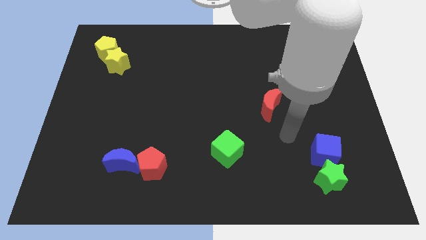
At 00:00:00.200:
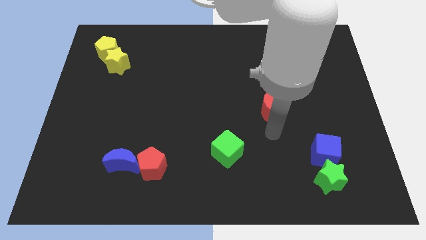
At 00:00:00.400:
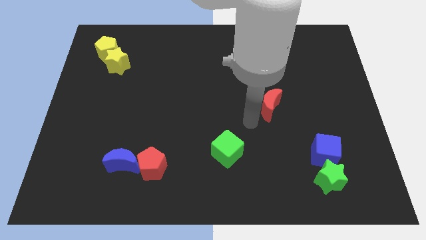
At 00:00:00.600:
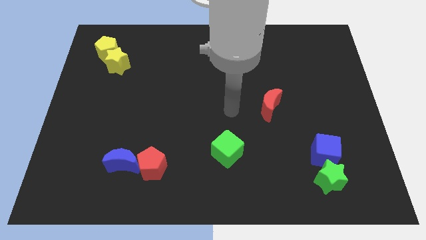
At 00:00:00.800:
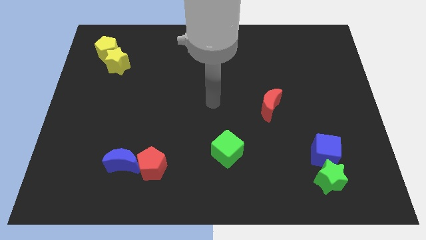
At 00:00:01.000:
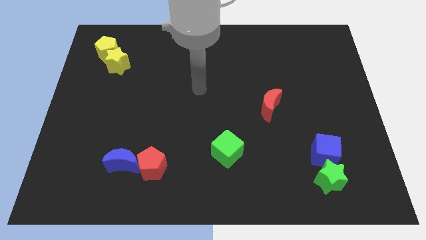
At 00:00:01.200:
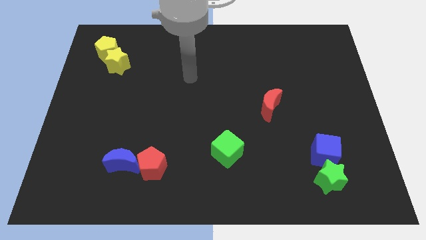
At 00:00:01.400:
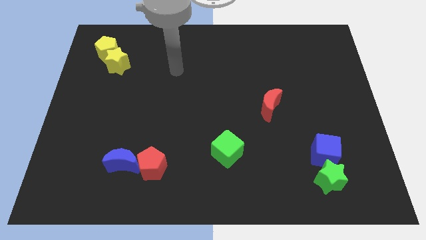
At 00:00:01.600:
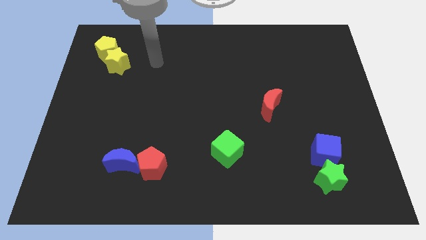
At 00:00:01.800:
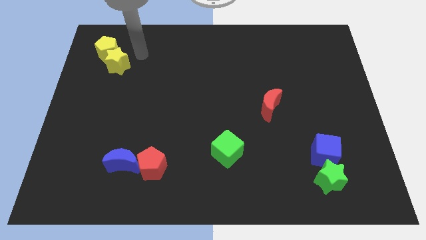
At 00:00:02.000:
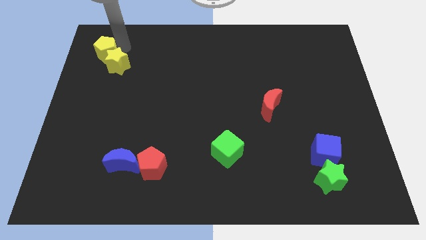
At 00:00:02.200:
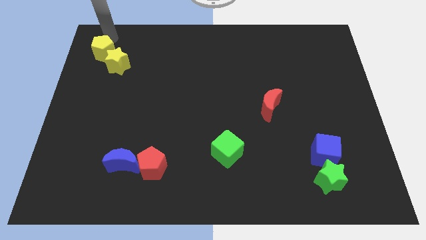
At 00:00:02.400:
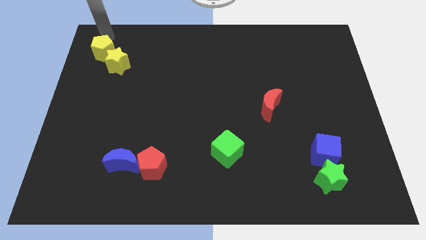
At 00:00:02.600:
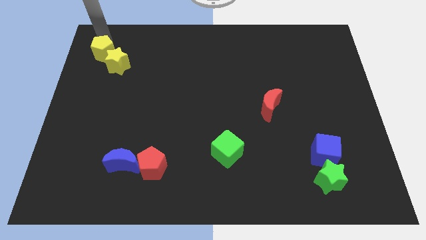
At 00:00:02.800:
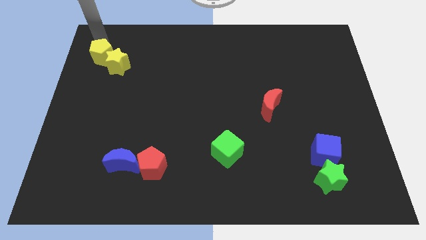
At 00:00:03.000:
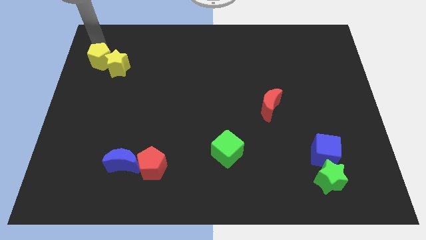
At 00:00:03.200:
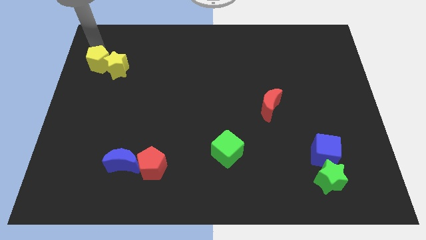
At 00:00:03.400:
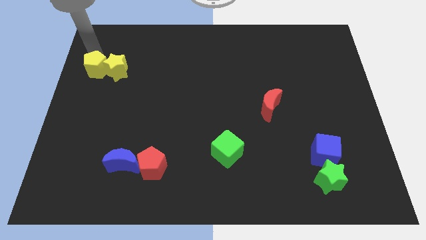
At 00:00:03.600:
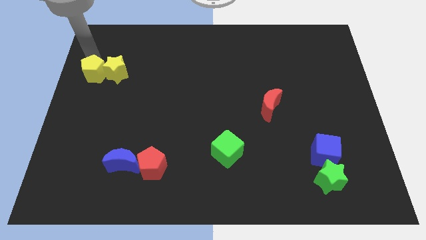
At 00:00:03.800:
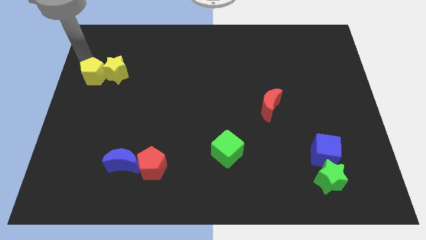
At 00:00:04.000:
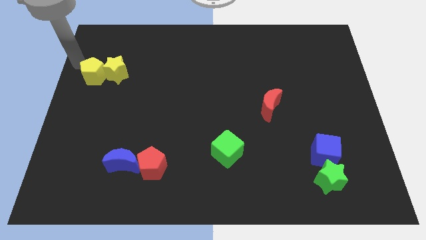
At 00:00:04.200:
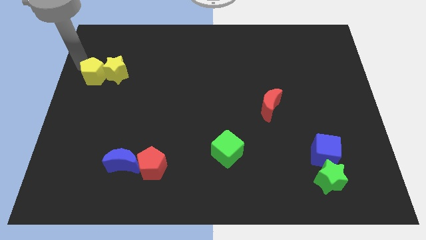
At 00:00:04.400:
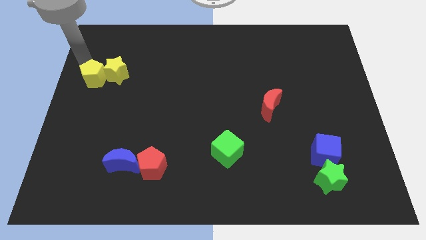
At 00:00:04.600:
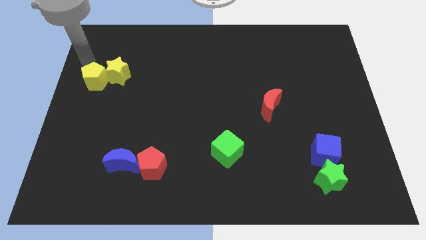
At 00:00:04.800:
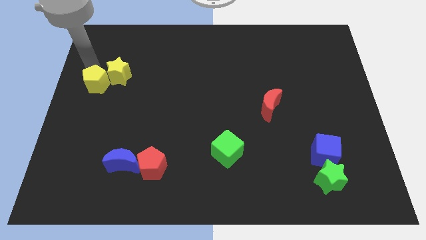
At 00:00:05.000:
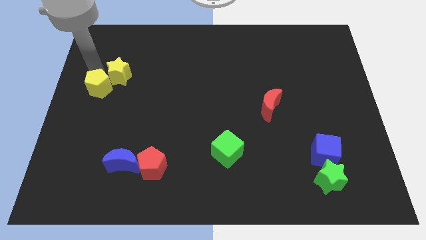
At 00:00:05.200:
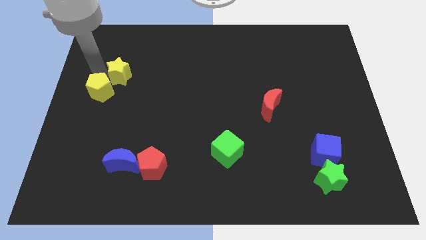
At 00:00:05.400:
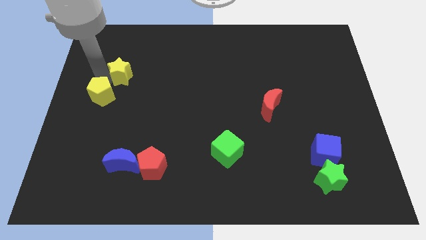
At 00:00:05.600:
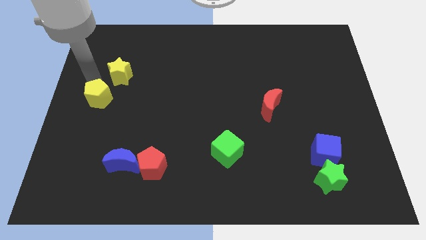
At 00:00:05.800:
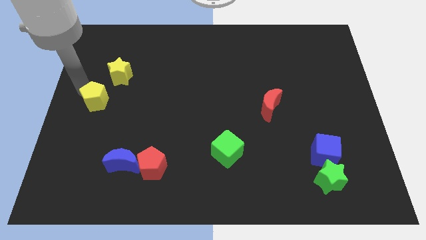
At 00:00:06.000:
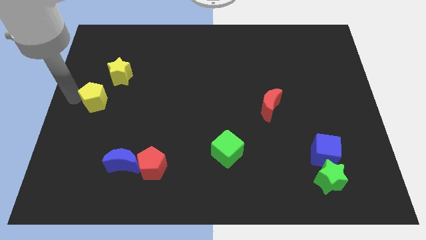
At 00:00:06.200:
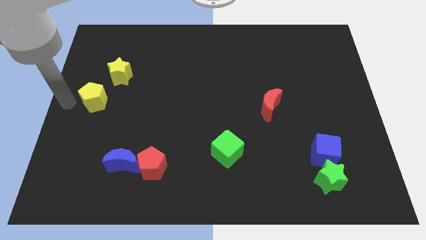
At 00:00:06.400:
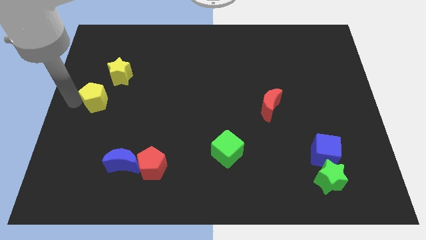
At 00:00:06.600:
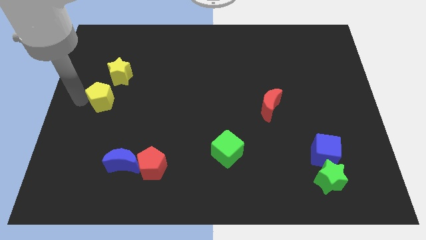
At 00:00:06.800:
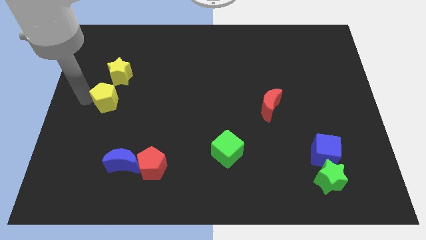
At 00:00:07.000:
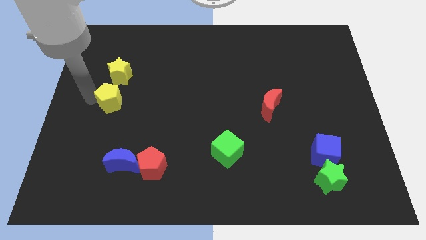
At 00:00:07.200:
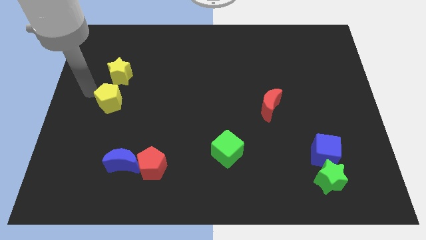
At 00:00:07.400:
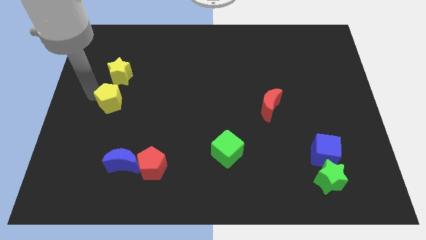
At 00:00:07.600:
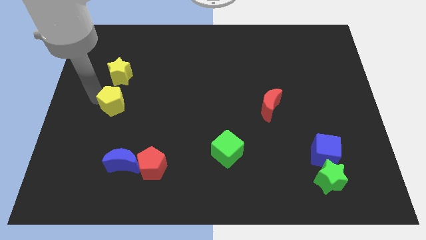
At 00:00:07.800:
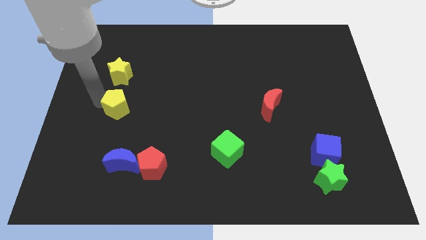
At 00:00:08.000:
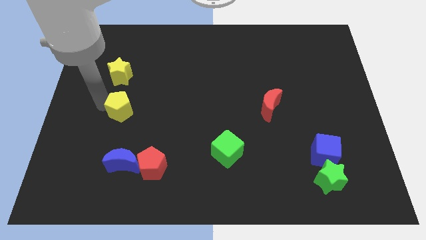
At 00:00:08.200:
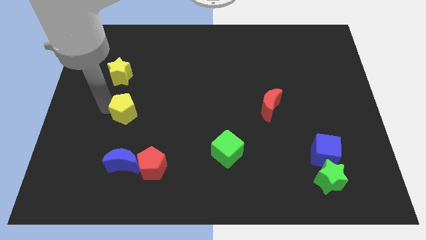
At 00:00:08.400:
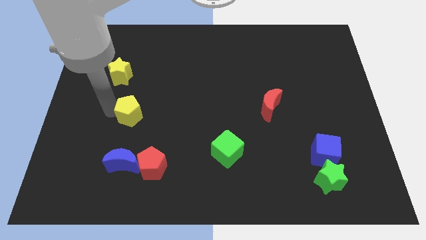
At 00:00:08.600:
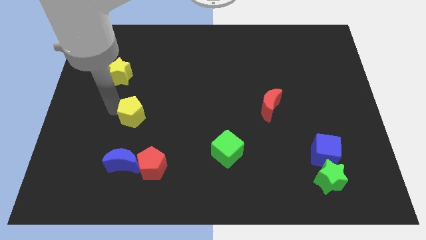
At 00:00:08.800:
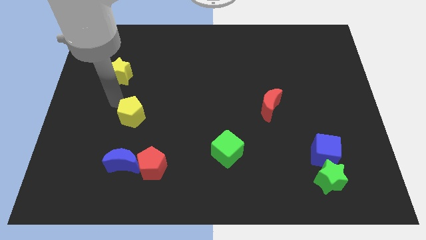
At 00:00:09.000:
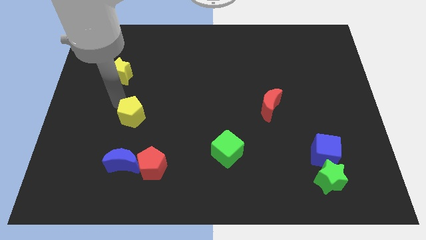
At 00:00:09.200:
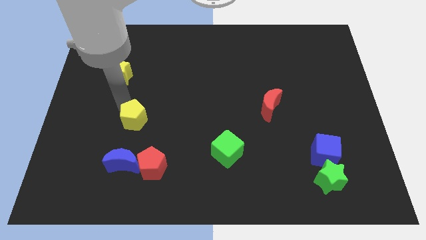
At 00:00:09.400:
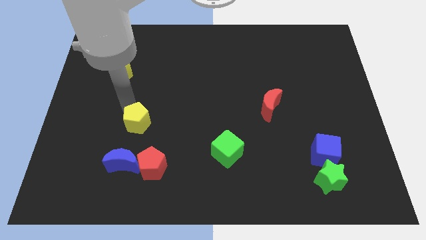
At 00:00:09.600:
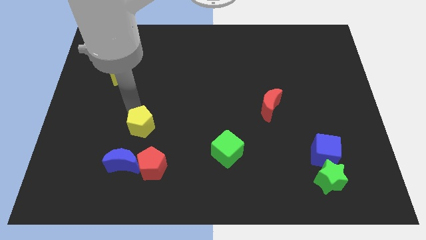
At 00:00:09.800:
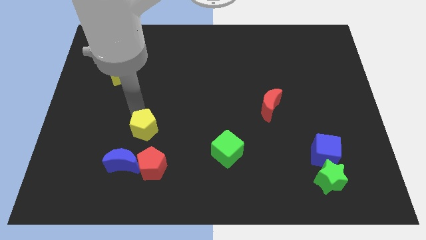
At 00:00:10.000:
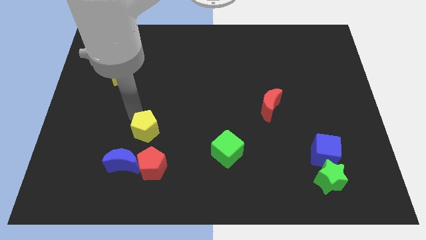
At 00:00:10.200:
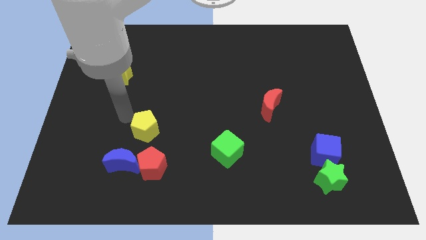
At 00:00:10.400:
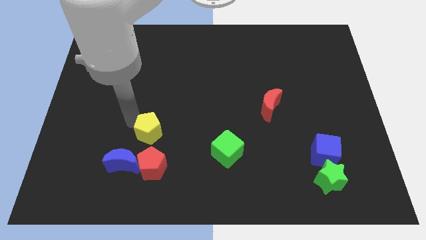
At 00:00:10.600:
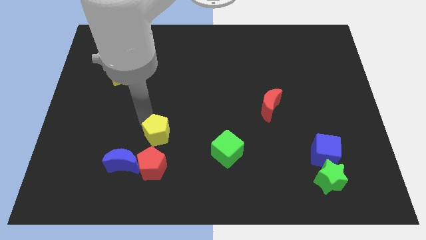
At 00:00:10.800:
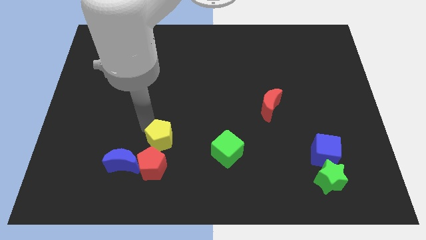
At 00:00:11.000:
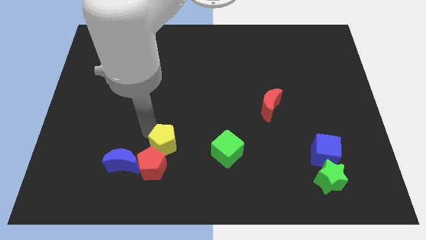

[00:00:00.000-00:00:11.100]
put the yellow pentagon right of the blue moon

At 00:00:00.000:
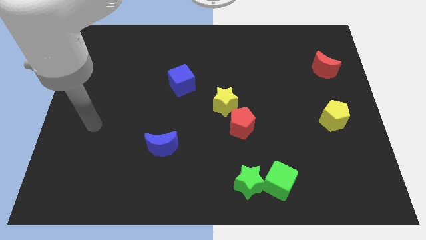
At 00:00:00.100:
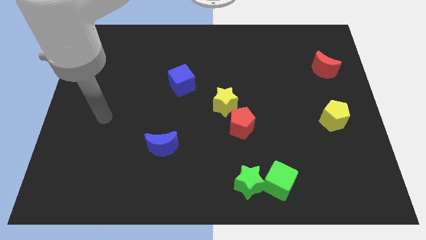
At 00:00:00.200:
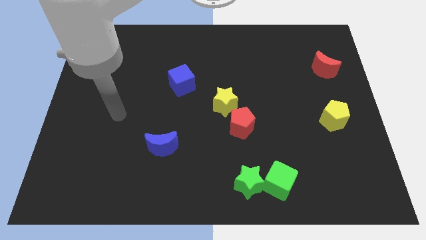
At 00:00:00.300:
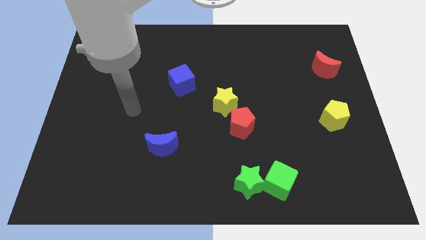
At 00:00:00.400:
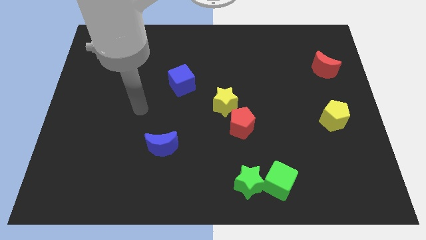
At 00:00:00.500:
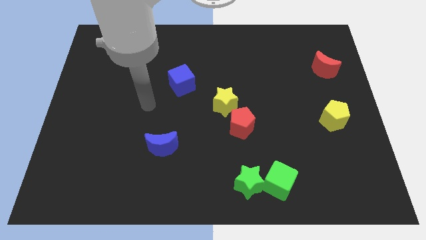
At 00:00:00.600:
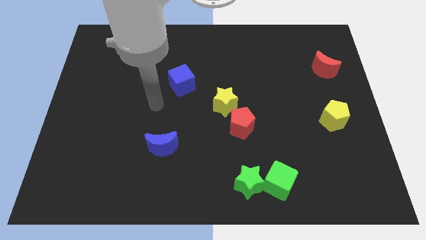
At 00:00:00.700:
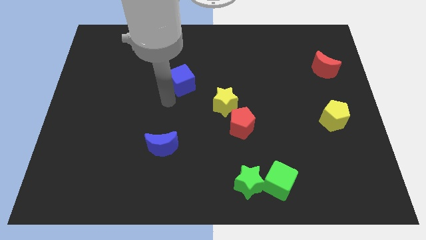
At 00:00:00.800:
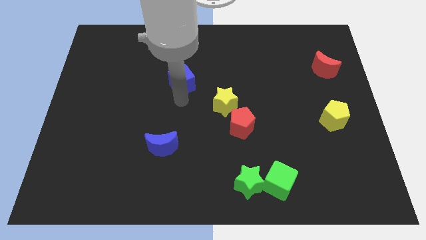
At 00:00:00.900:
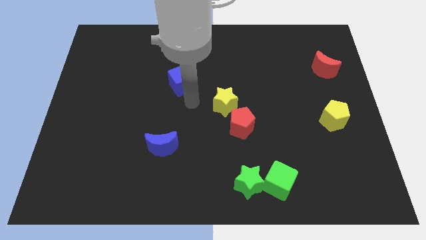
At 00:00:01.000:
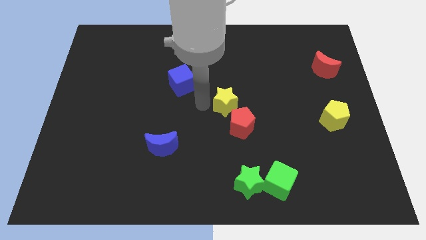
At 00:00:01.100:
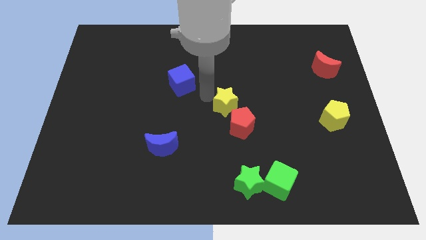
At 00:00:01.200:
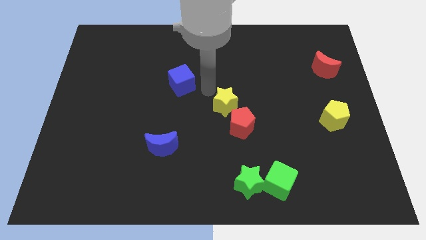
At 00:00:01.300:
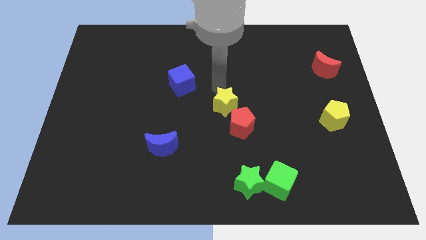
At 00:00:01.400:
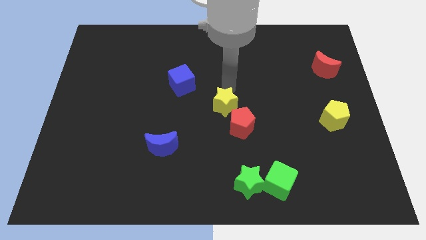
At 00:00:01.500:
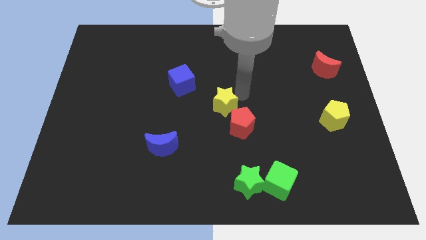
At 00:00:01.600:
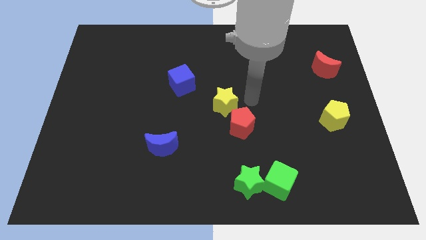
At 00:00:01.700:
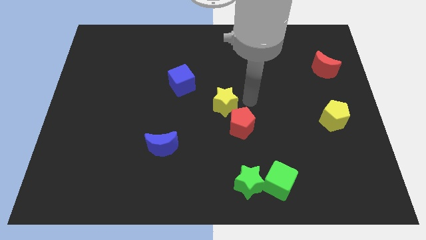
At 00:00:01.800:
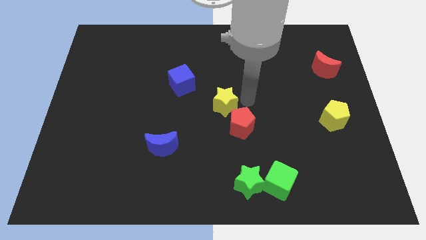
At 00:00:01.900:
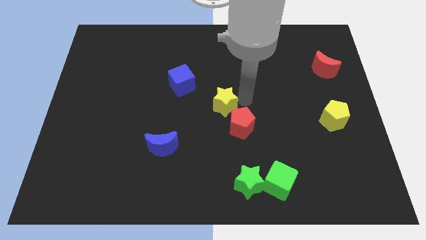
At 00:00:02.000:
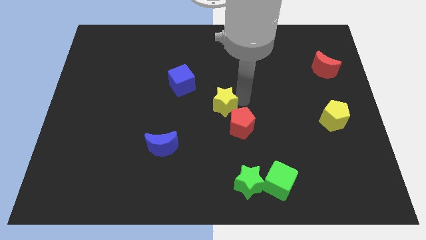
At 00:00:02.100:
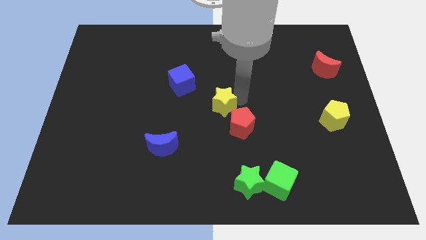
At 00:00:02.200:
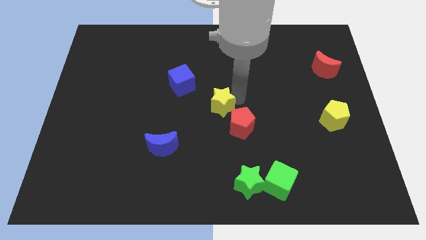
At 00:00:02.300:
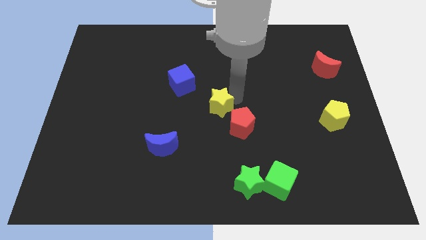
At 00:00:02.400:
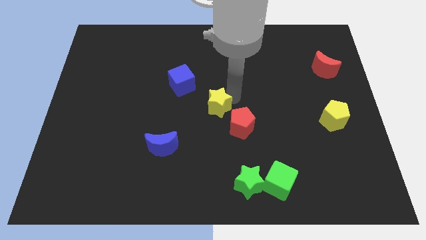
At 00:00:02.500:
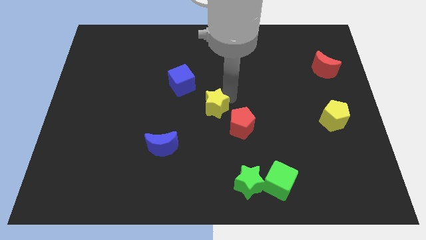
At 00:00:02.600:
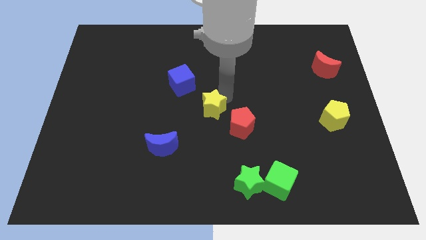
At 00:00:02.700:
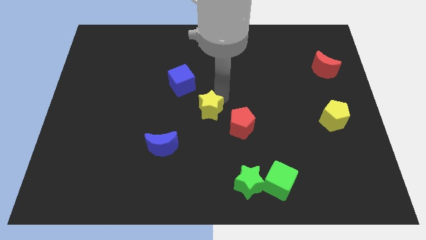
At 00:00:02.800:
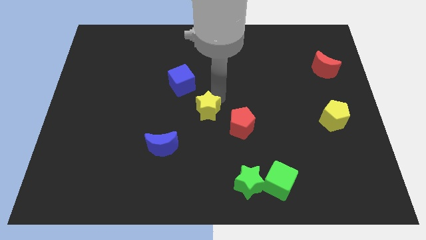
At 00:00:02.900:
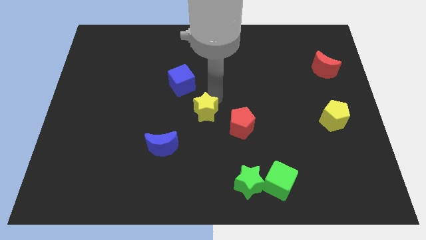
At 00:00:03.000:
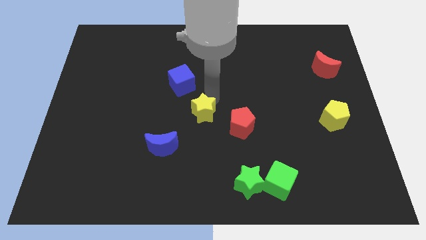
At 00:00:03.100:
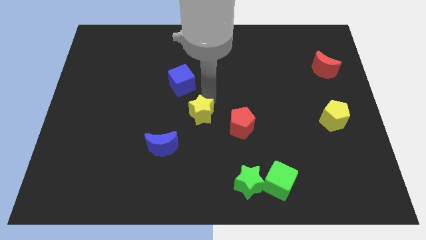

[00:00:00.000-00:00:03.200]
put the yellow star to the bottom of the blue cube
